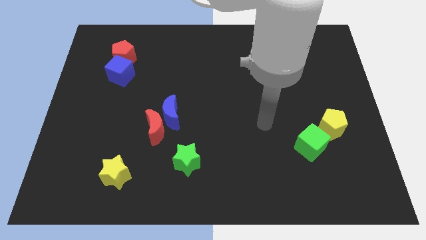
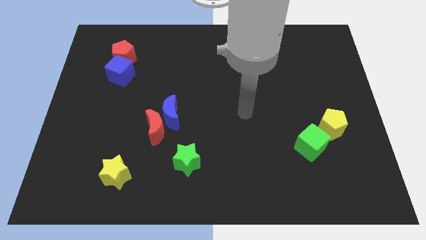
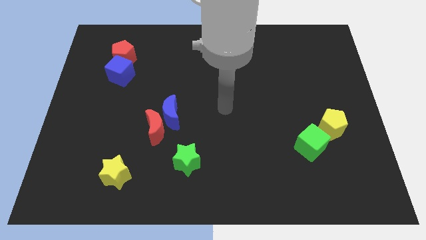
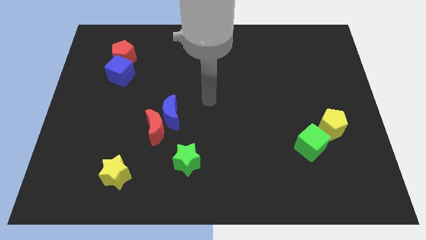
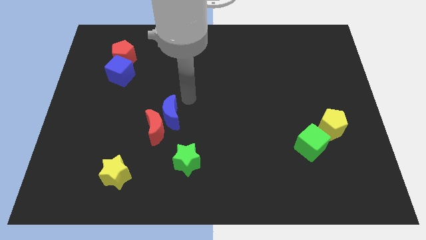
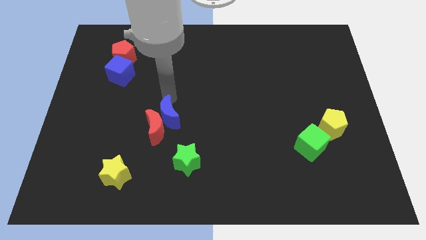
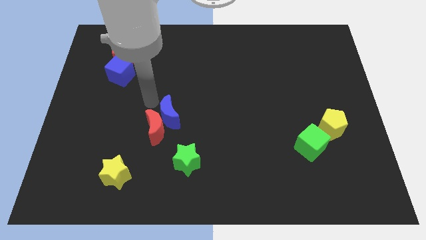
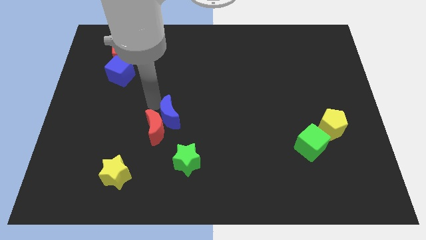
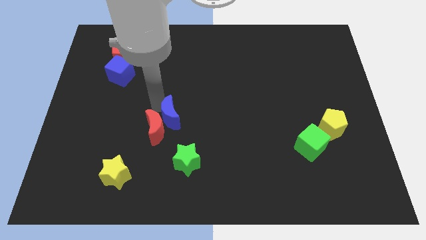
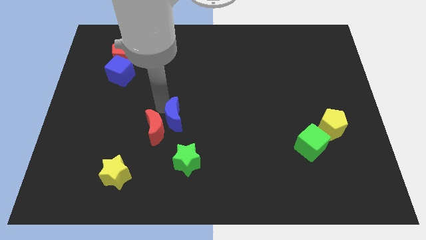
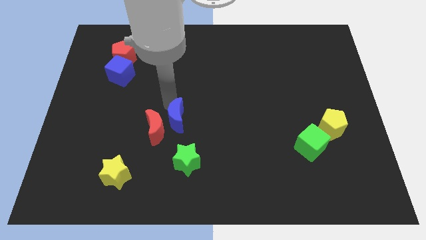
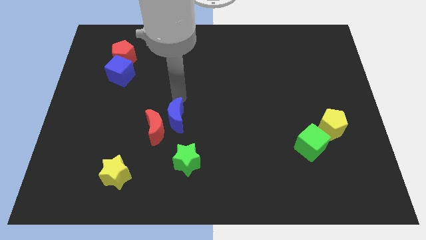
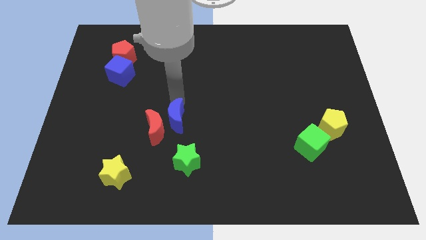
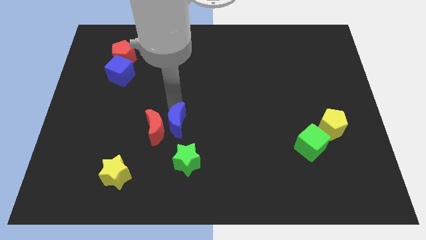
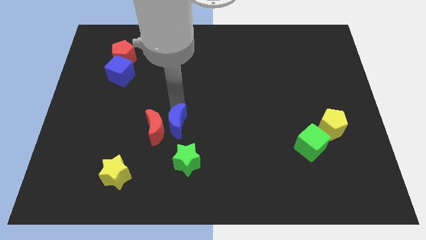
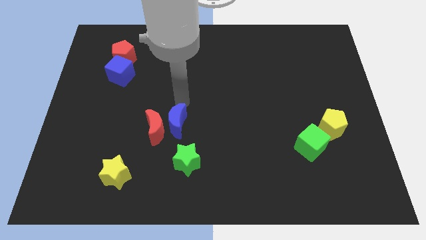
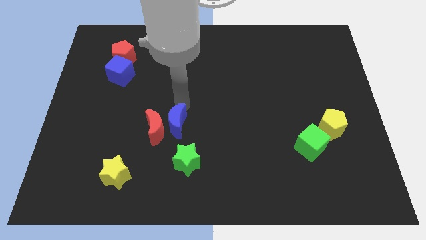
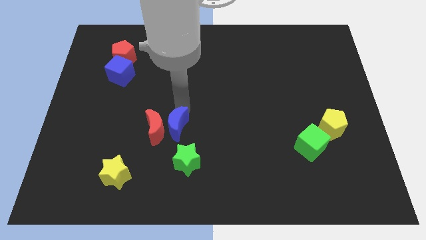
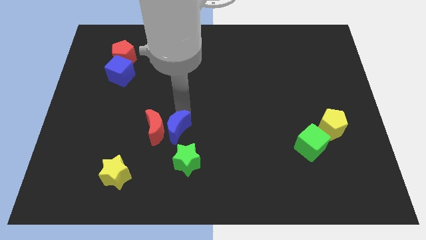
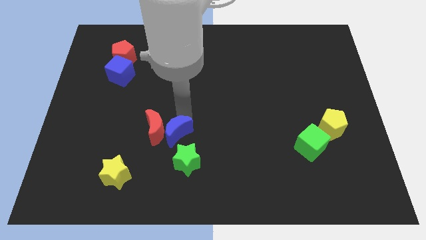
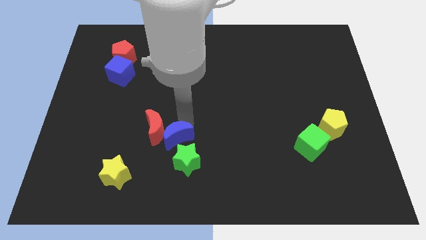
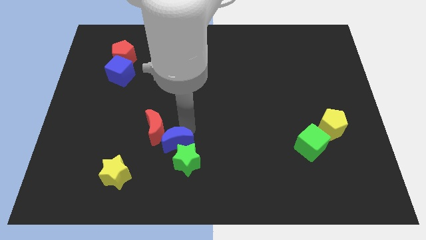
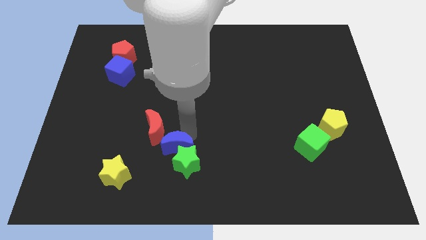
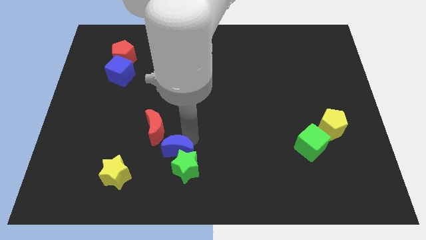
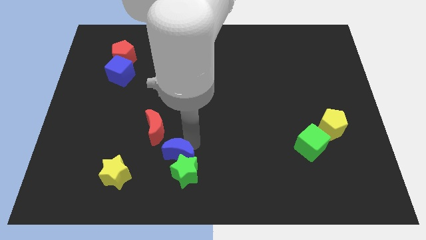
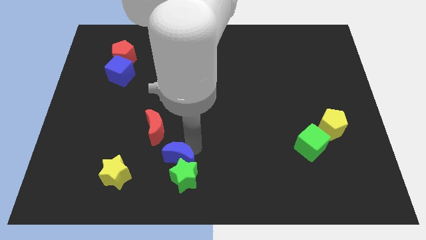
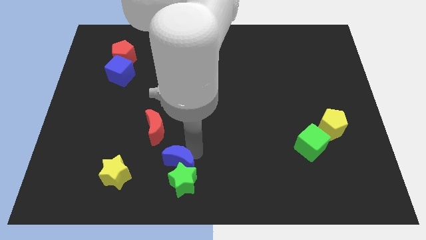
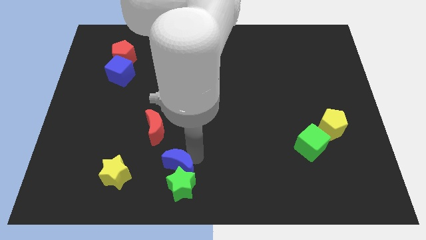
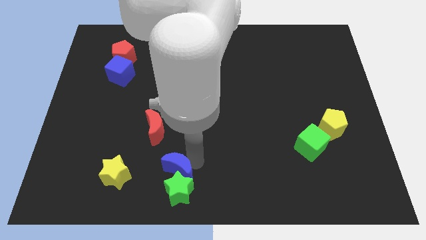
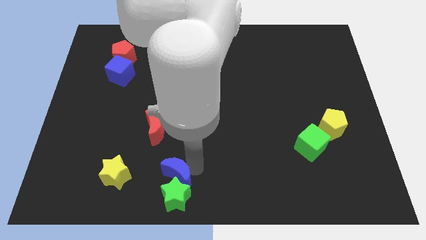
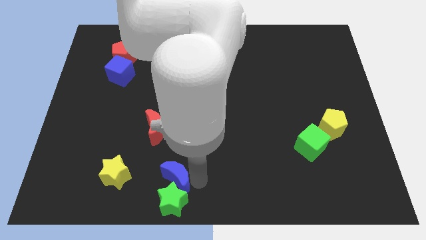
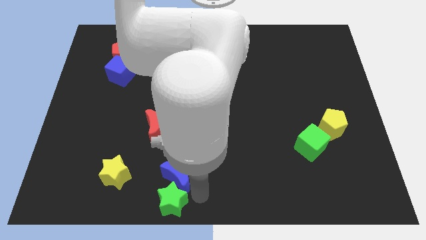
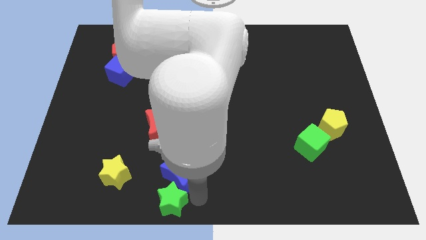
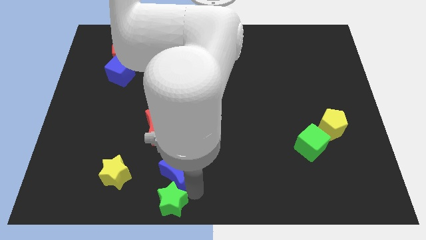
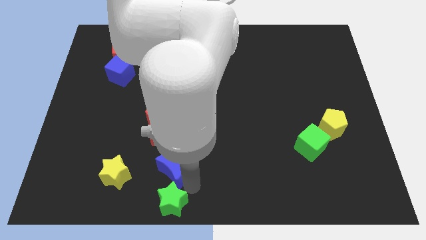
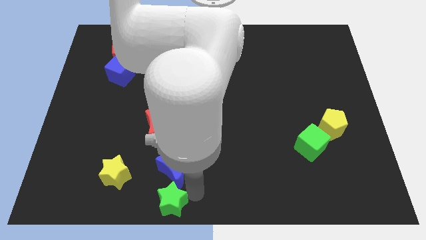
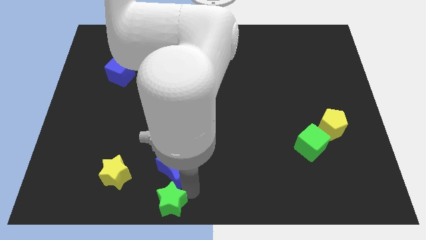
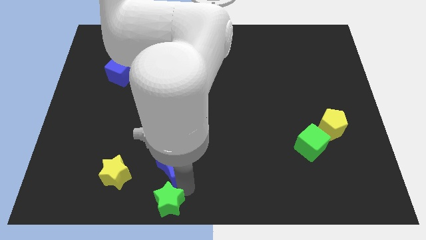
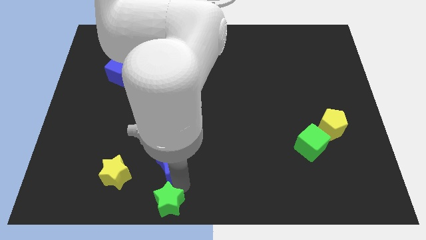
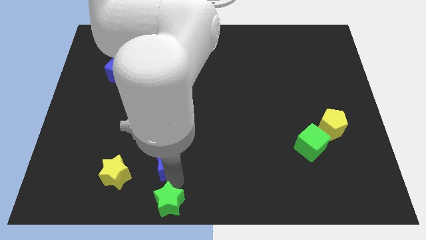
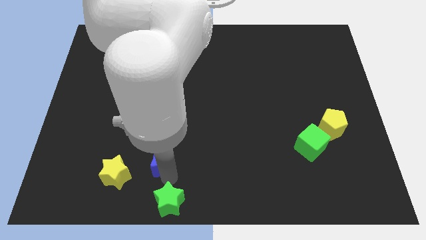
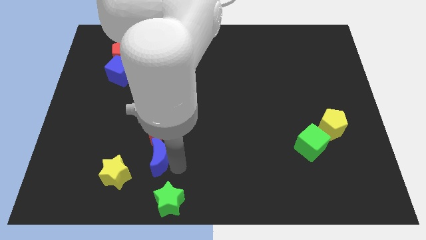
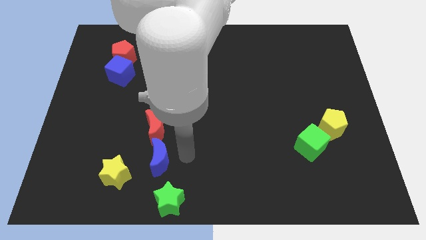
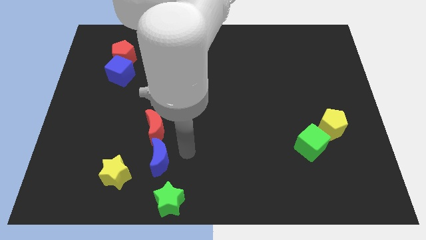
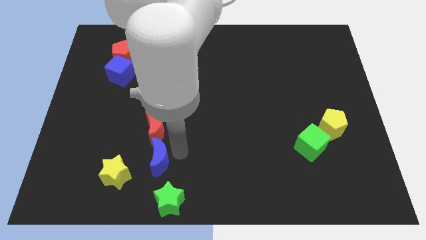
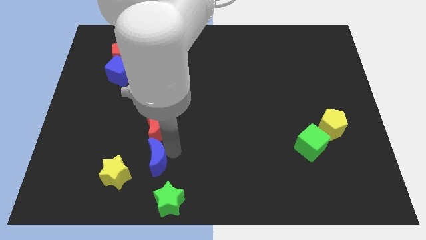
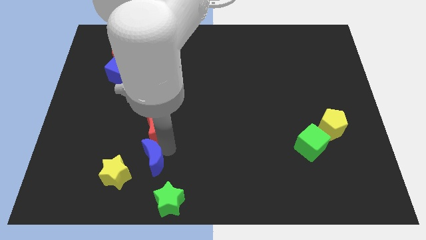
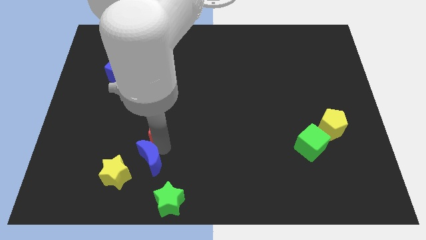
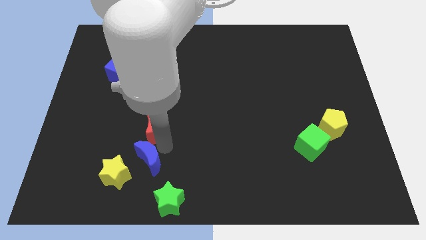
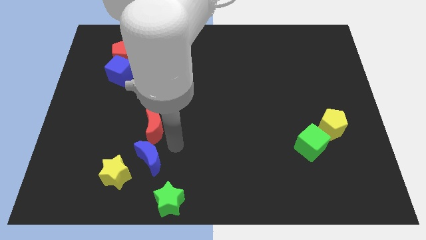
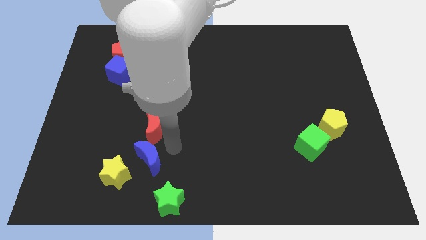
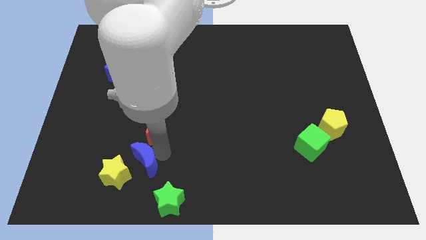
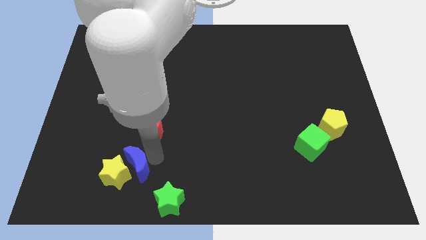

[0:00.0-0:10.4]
push the blue moon close to the yellow star

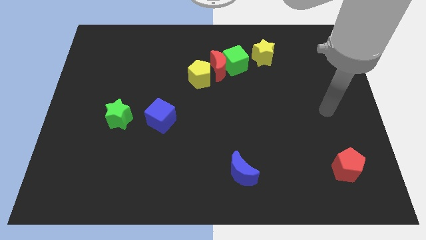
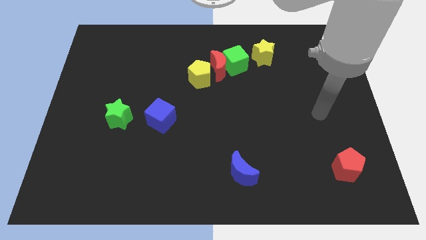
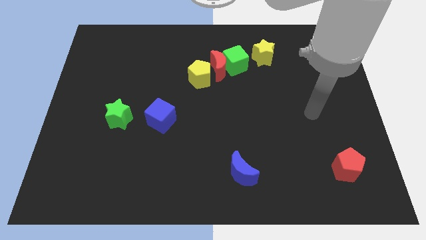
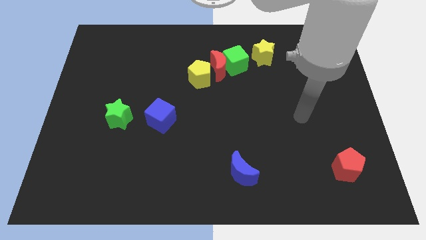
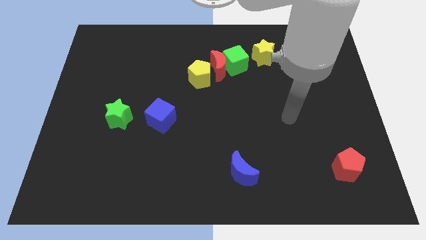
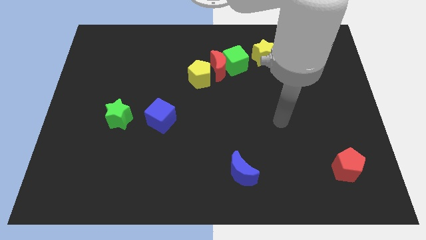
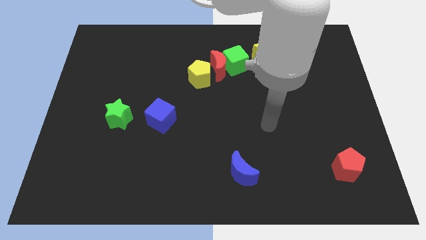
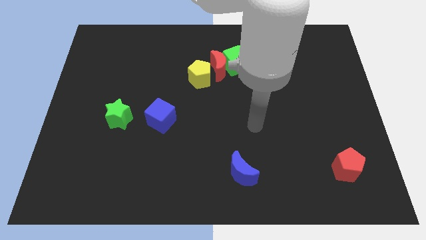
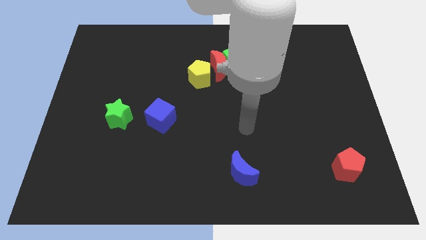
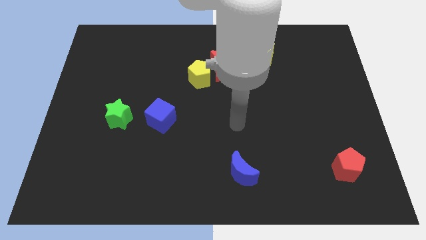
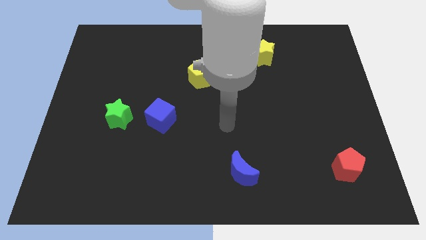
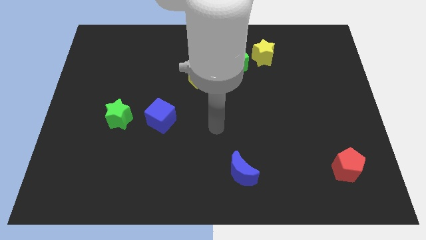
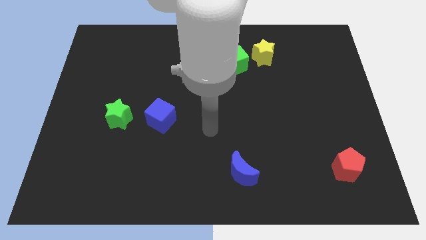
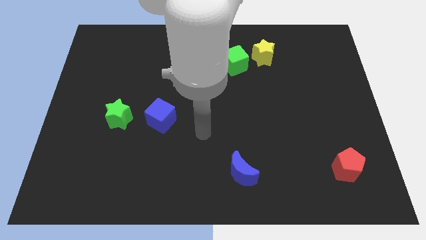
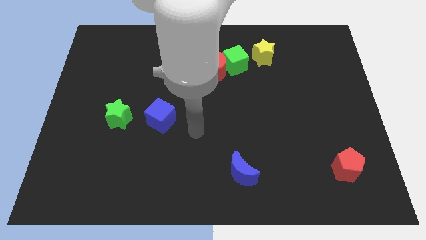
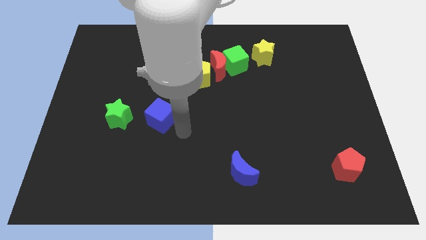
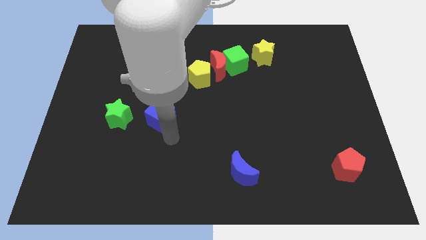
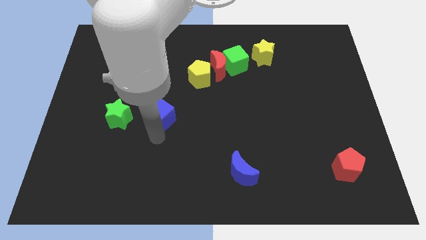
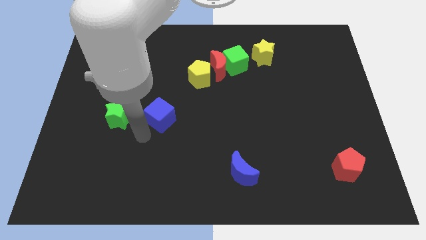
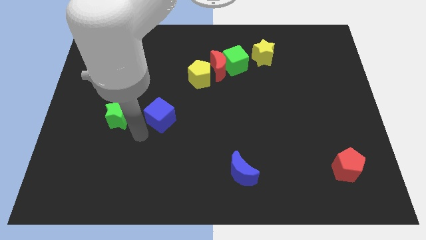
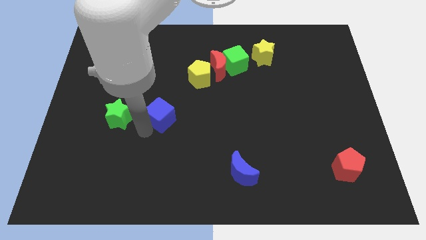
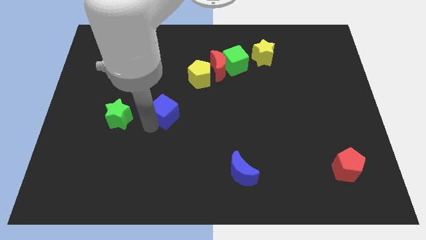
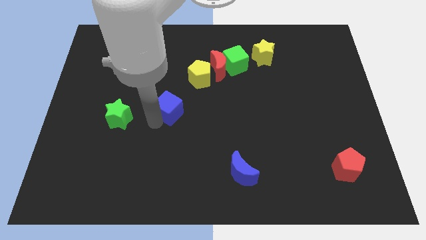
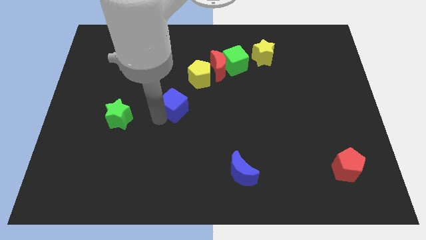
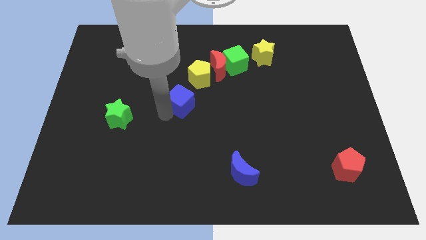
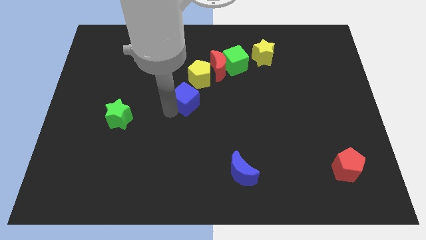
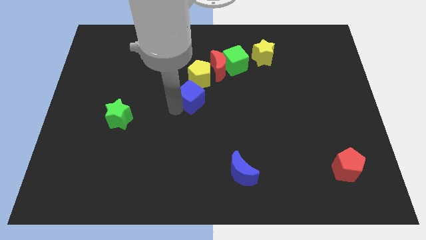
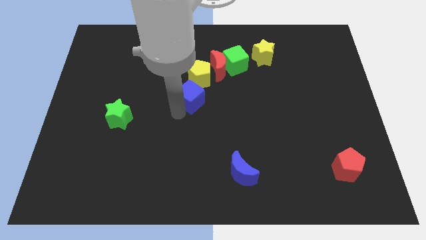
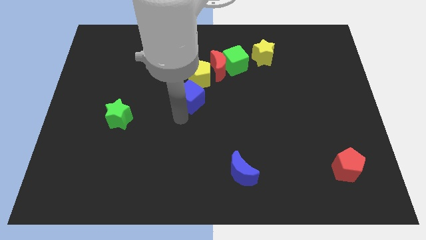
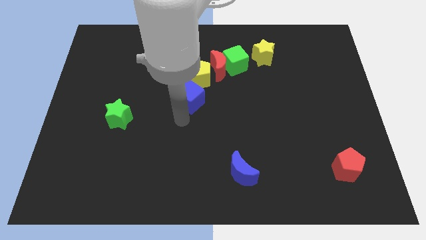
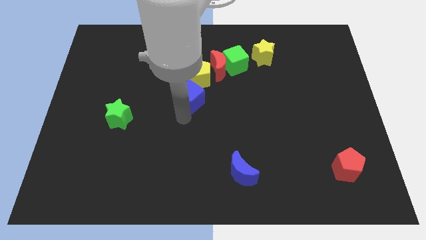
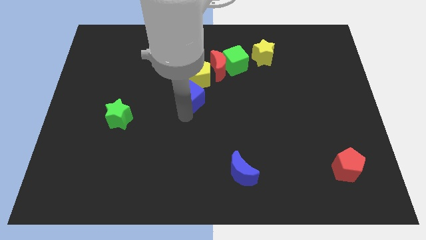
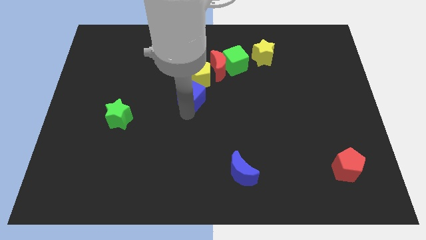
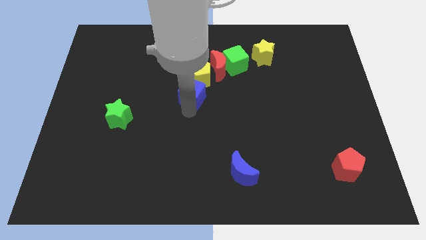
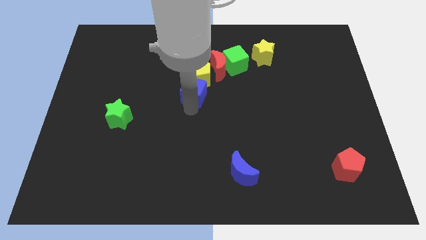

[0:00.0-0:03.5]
slide the blue cube next to the yellow pentagon
